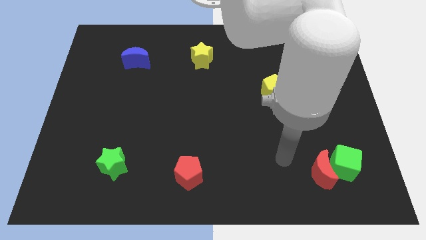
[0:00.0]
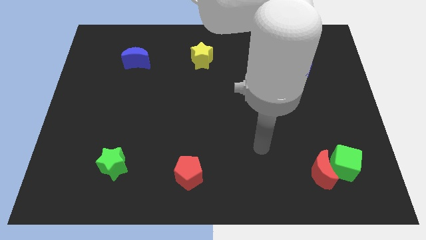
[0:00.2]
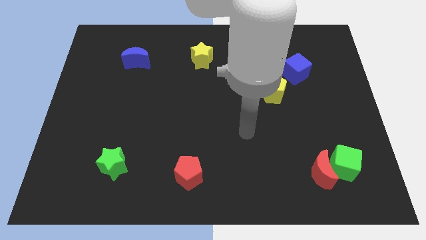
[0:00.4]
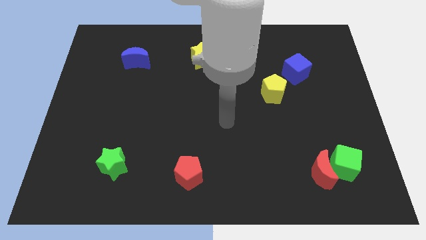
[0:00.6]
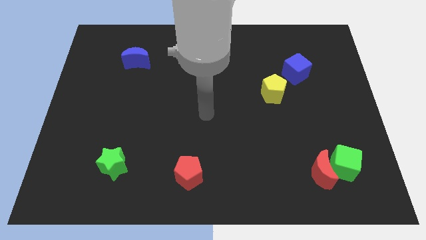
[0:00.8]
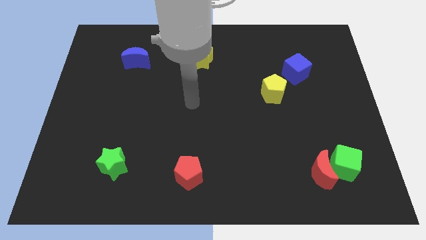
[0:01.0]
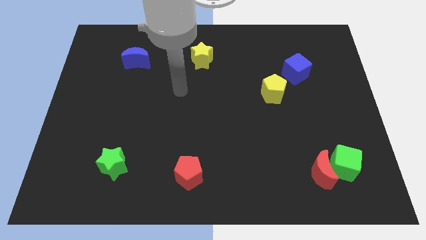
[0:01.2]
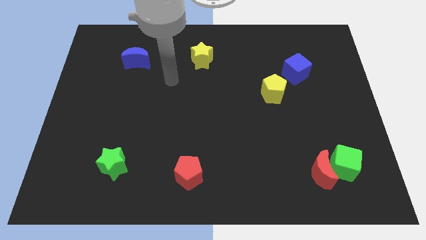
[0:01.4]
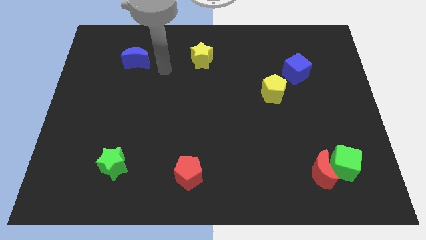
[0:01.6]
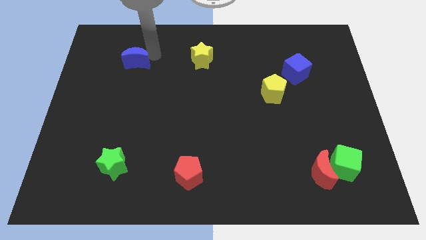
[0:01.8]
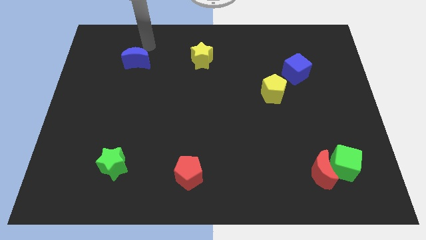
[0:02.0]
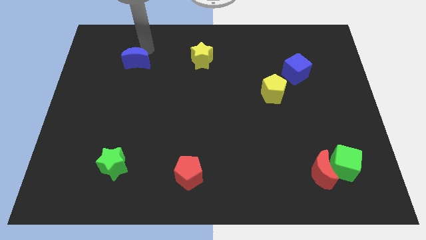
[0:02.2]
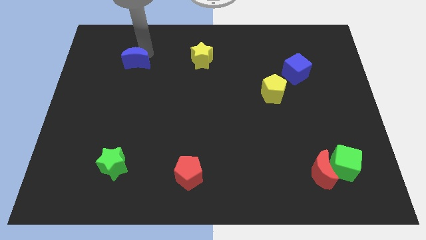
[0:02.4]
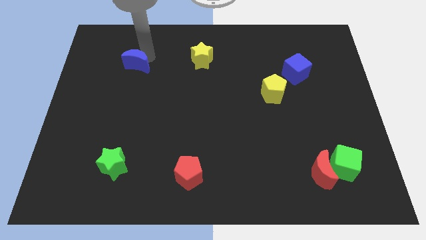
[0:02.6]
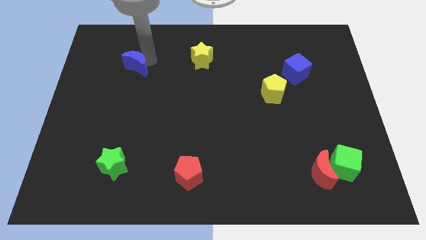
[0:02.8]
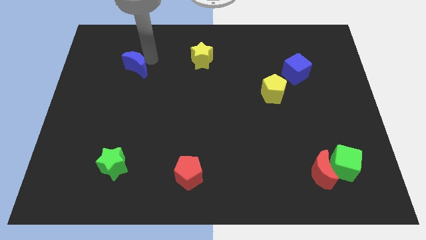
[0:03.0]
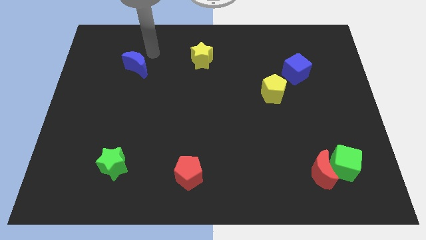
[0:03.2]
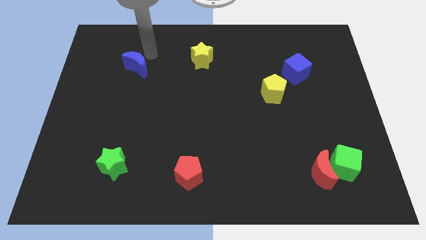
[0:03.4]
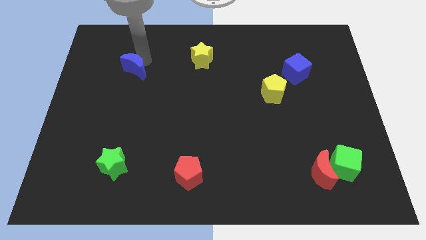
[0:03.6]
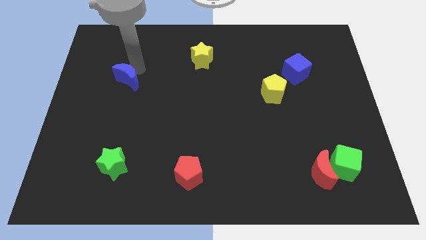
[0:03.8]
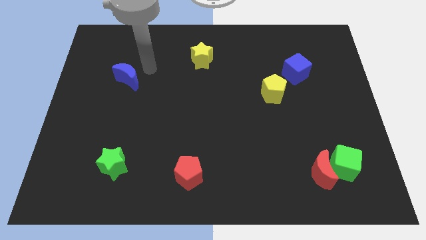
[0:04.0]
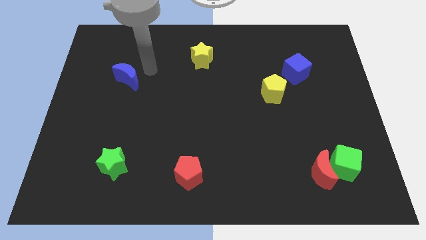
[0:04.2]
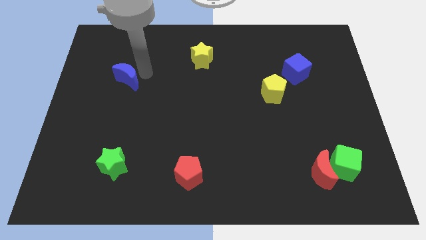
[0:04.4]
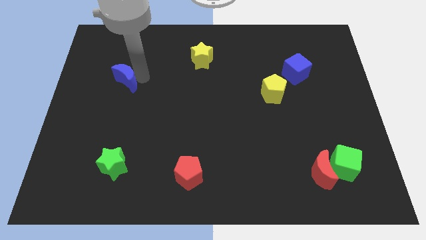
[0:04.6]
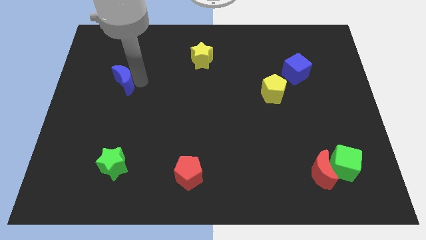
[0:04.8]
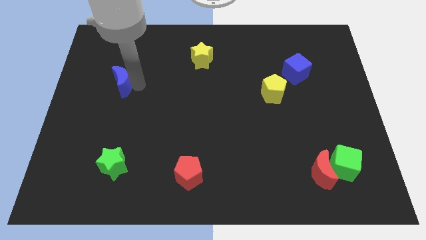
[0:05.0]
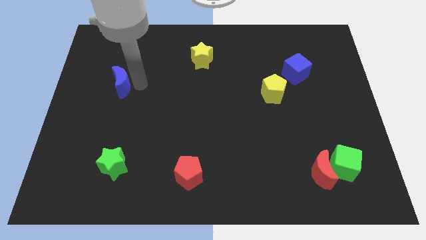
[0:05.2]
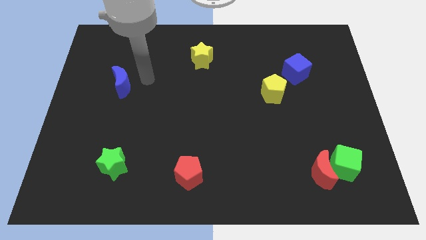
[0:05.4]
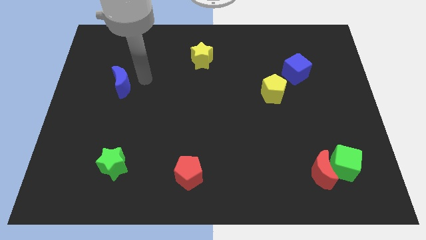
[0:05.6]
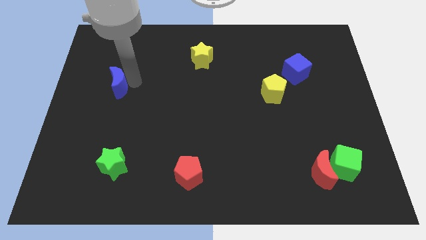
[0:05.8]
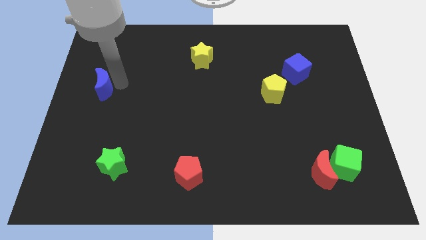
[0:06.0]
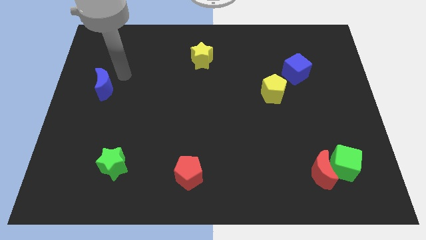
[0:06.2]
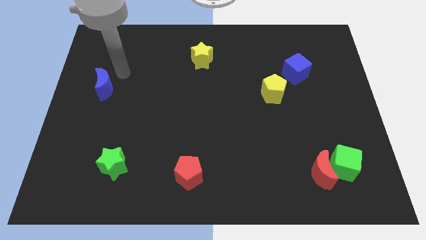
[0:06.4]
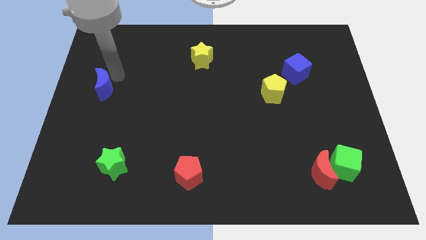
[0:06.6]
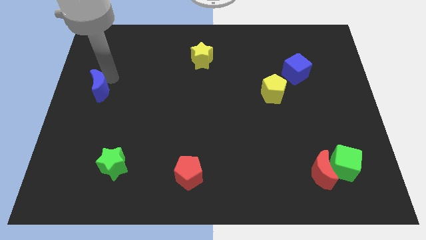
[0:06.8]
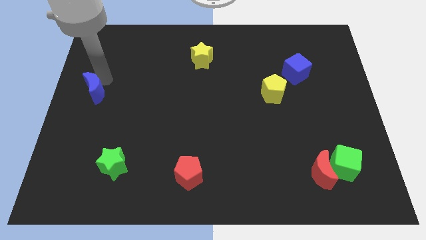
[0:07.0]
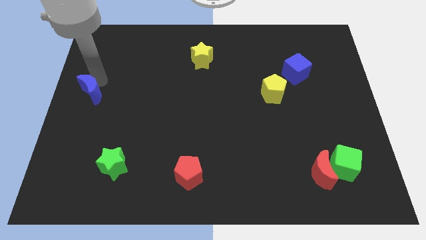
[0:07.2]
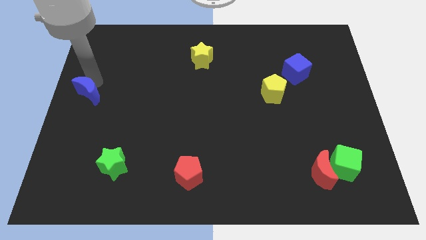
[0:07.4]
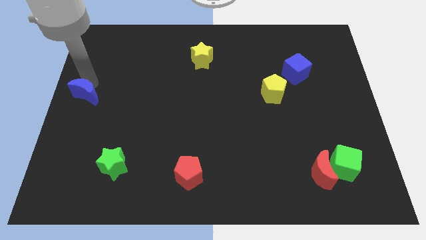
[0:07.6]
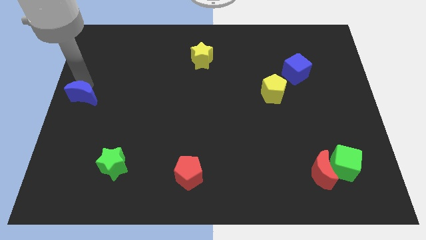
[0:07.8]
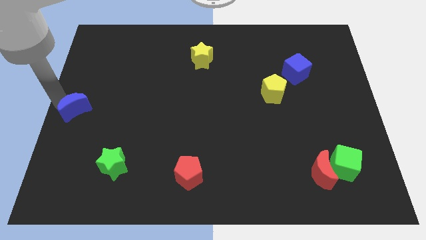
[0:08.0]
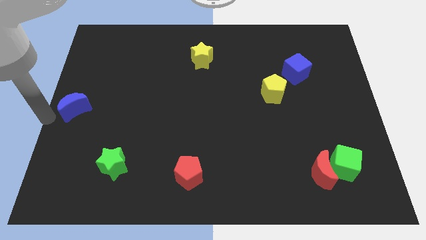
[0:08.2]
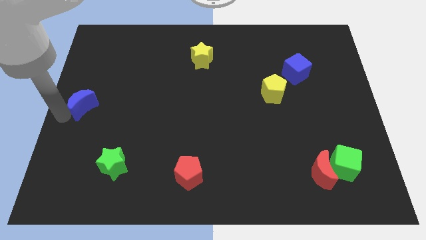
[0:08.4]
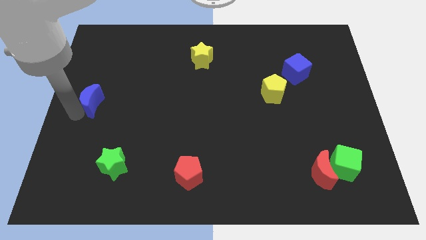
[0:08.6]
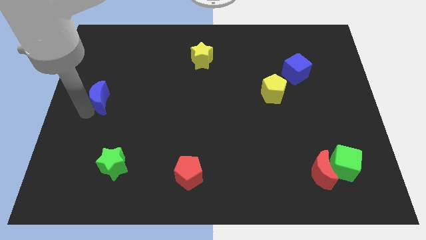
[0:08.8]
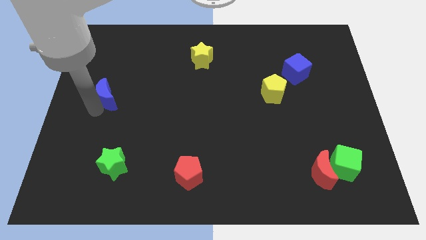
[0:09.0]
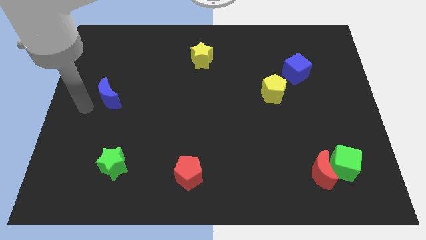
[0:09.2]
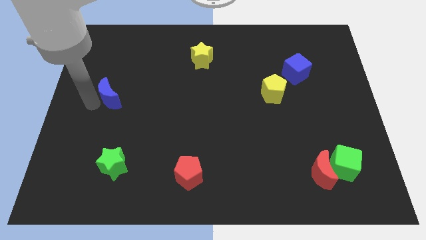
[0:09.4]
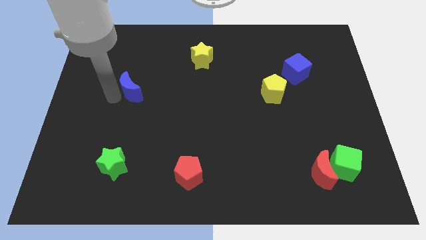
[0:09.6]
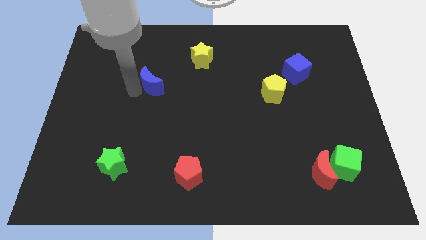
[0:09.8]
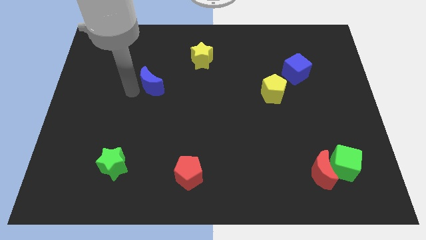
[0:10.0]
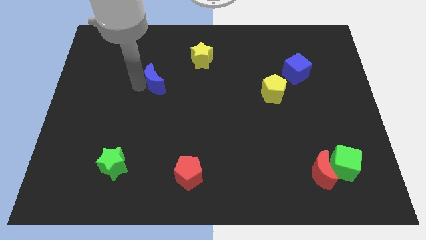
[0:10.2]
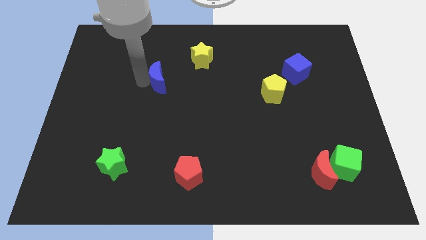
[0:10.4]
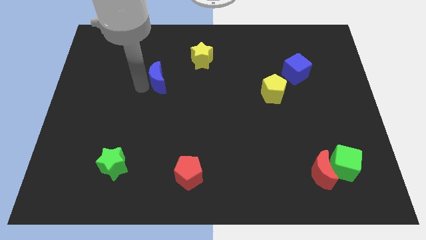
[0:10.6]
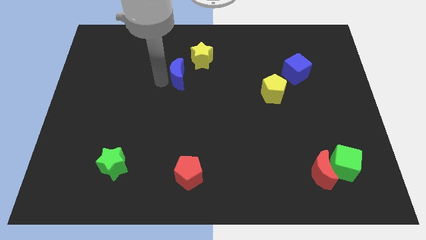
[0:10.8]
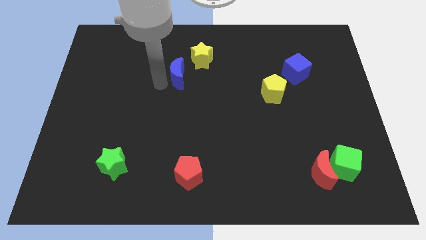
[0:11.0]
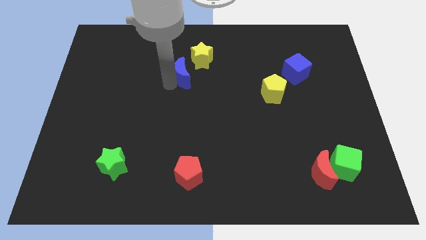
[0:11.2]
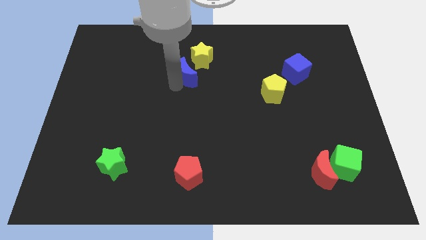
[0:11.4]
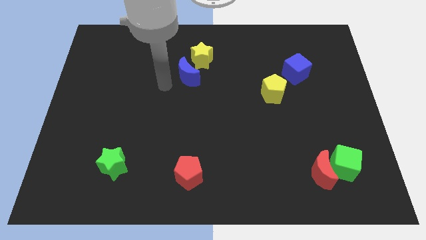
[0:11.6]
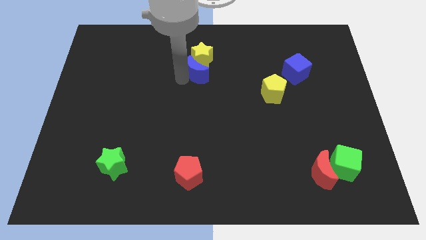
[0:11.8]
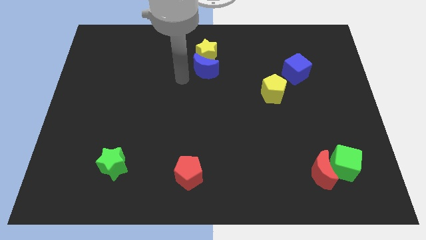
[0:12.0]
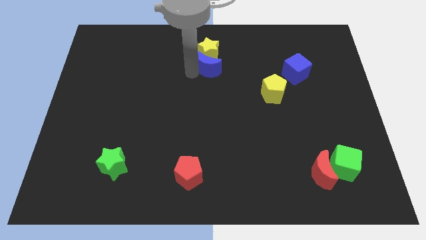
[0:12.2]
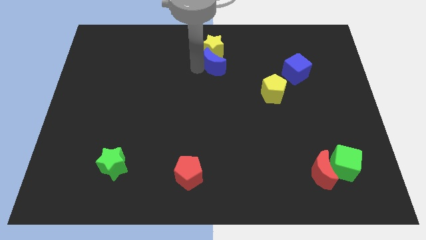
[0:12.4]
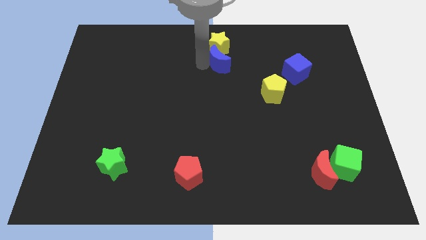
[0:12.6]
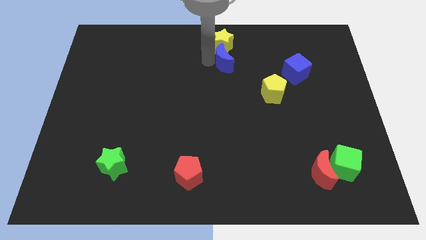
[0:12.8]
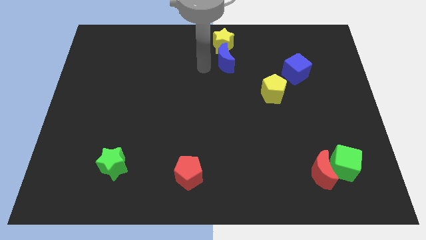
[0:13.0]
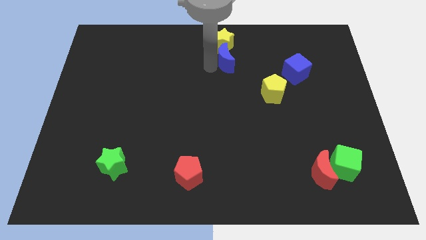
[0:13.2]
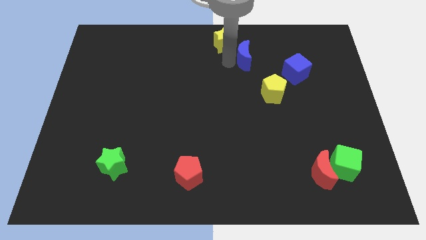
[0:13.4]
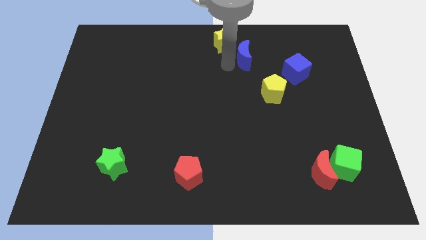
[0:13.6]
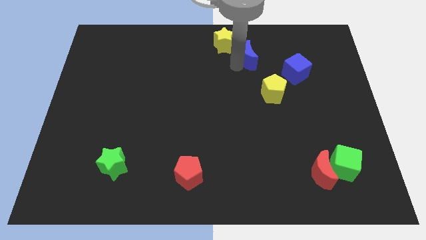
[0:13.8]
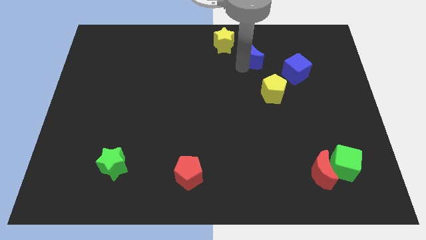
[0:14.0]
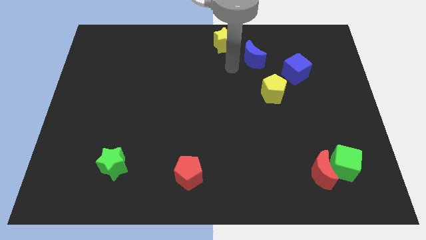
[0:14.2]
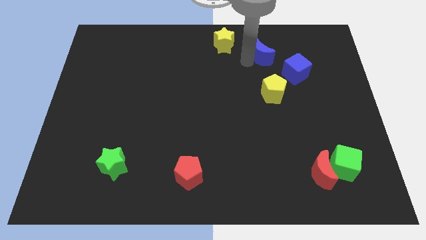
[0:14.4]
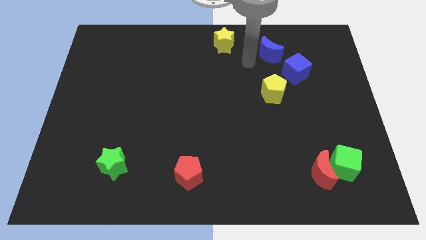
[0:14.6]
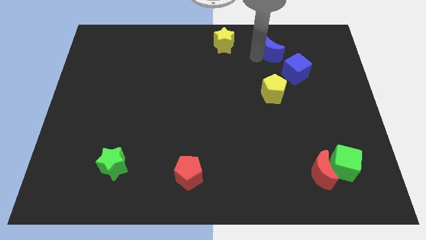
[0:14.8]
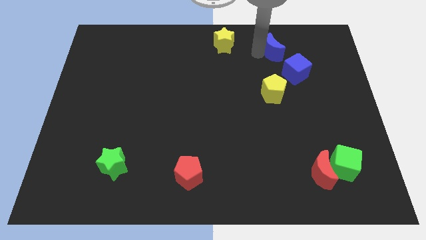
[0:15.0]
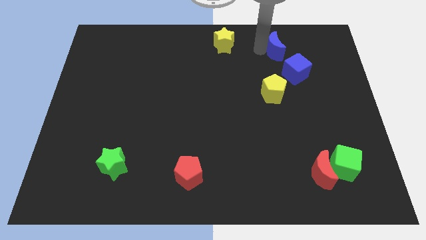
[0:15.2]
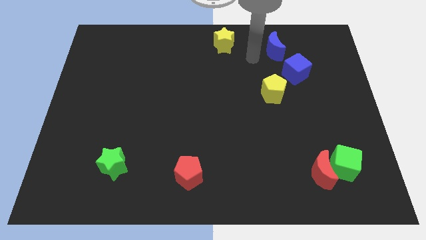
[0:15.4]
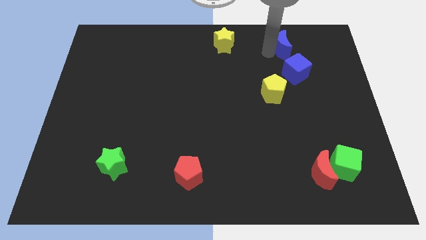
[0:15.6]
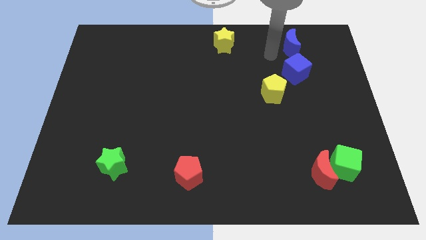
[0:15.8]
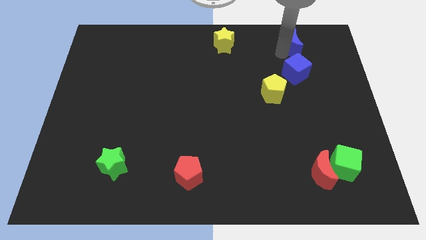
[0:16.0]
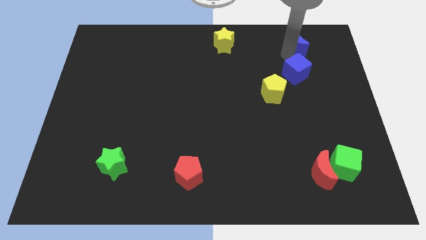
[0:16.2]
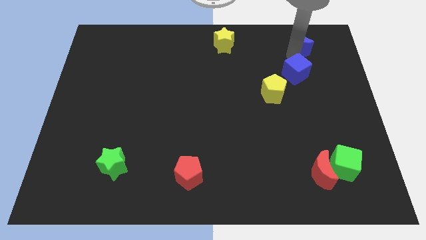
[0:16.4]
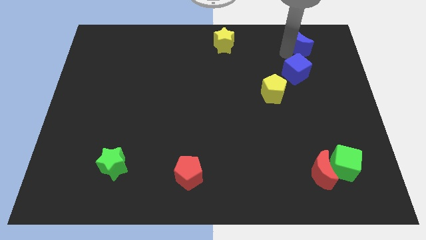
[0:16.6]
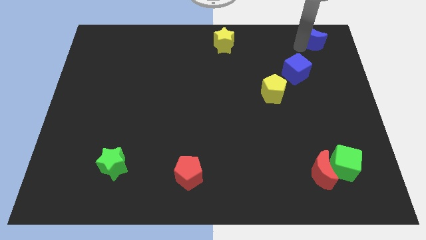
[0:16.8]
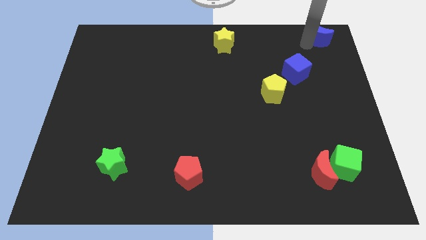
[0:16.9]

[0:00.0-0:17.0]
put the blue moon to the upper right corner
